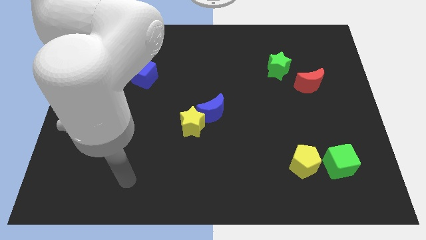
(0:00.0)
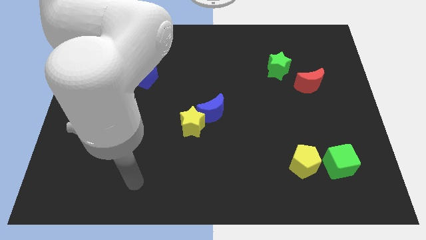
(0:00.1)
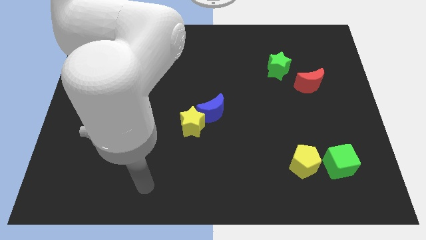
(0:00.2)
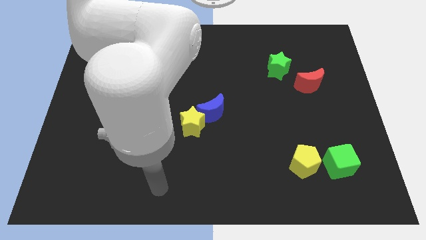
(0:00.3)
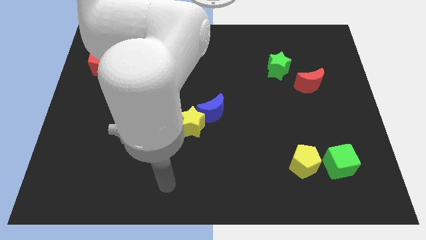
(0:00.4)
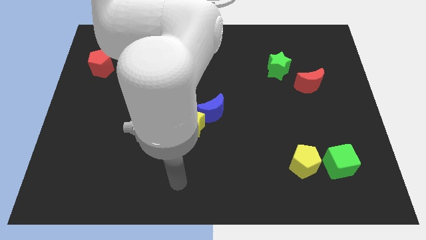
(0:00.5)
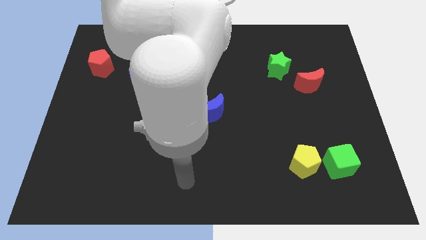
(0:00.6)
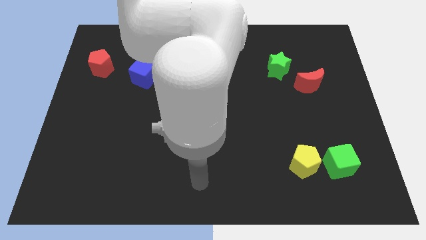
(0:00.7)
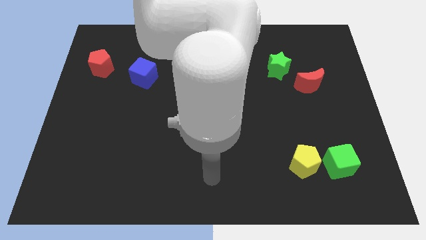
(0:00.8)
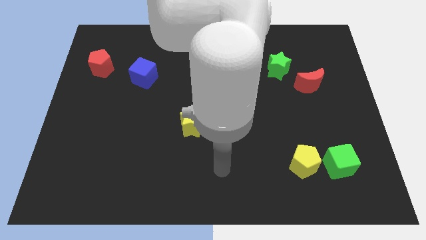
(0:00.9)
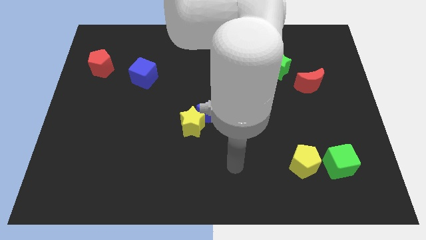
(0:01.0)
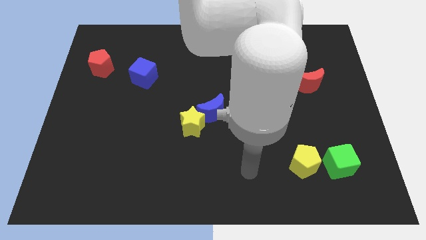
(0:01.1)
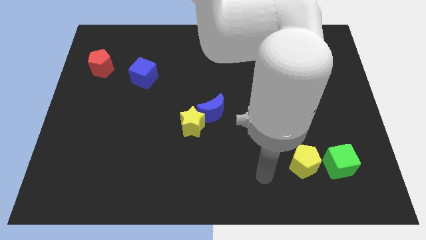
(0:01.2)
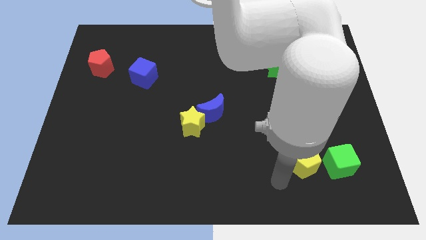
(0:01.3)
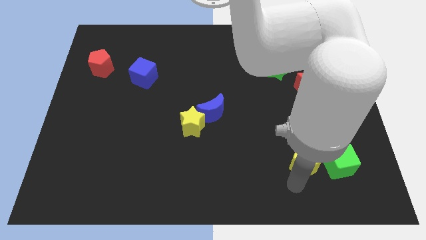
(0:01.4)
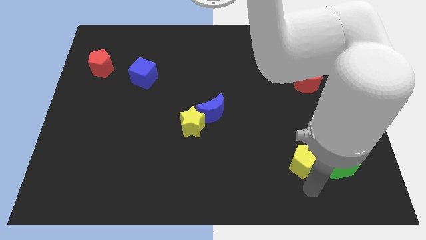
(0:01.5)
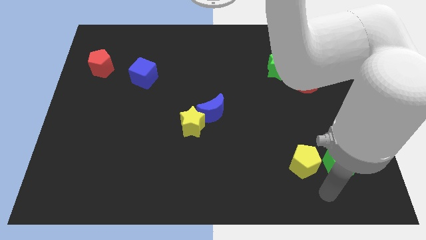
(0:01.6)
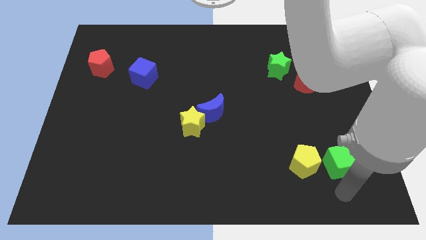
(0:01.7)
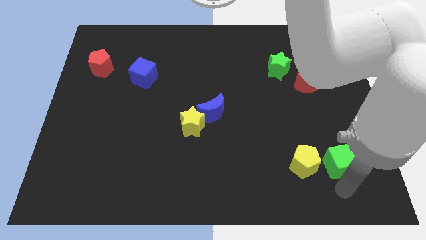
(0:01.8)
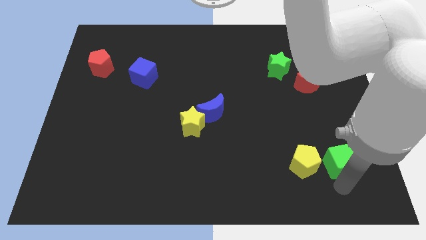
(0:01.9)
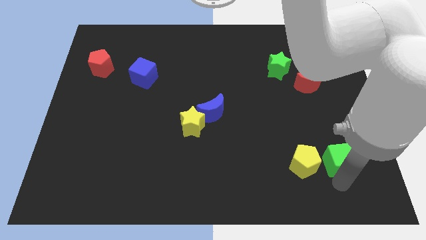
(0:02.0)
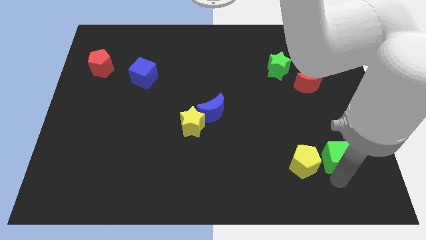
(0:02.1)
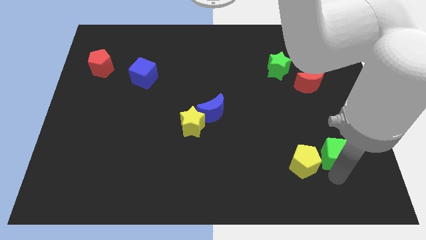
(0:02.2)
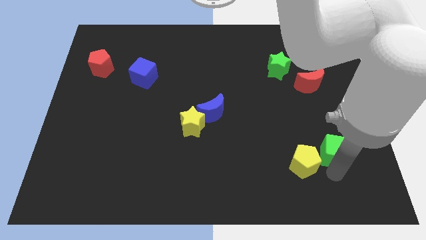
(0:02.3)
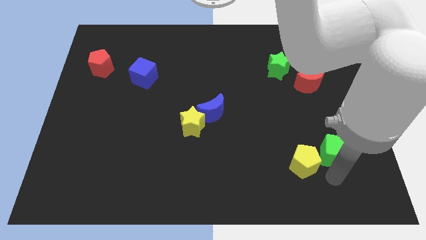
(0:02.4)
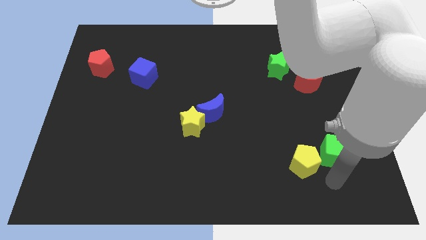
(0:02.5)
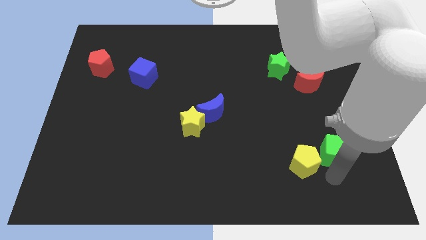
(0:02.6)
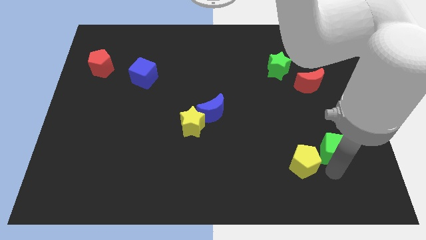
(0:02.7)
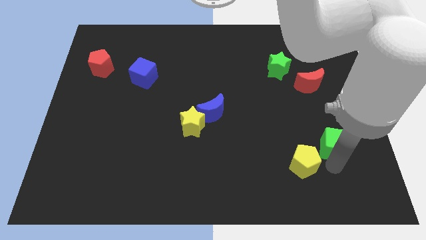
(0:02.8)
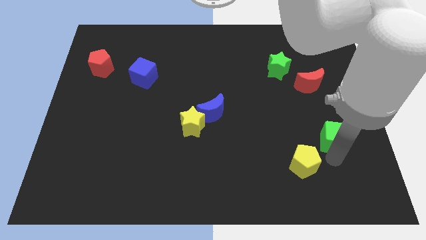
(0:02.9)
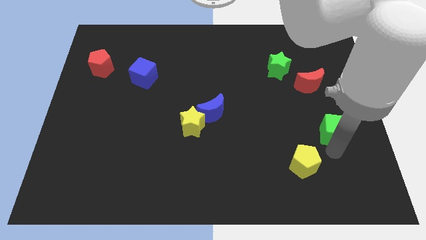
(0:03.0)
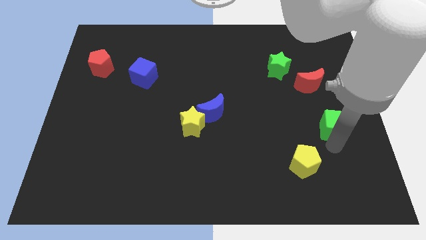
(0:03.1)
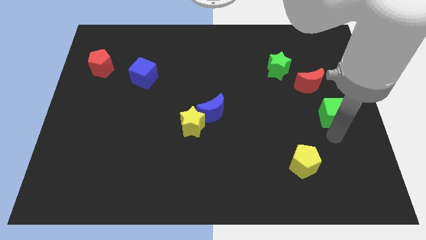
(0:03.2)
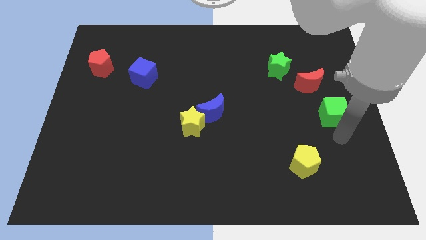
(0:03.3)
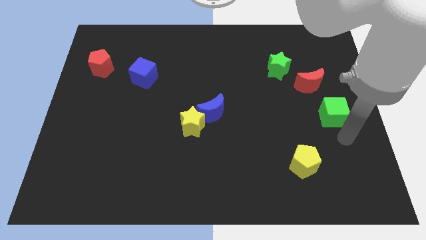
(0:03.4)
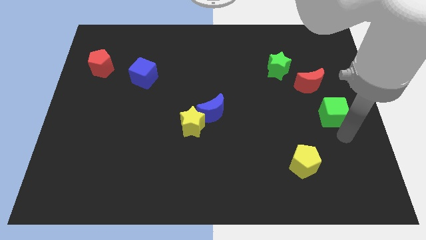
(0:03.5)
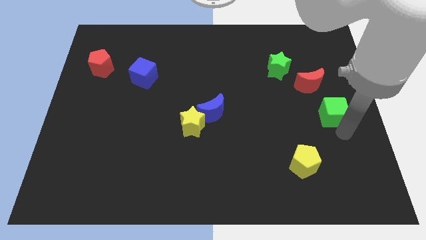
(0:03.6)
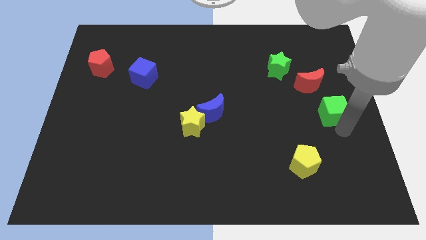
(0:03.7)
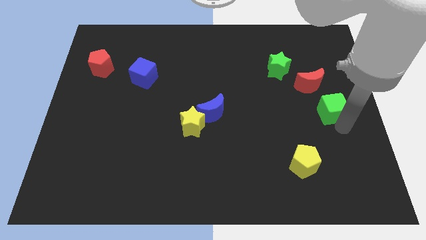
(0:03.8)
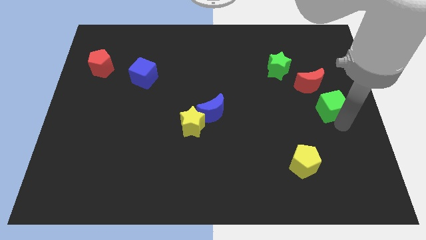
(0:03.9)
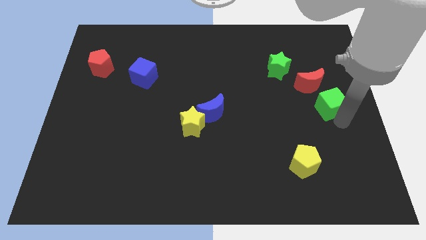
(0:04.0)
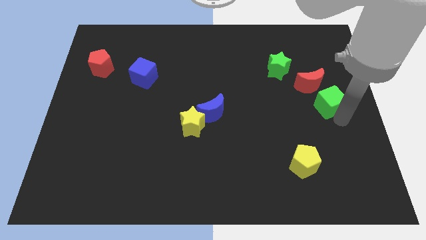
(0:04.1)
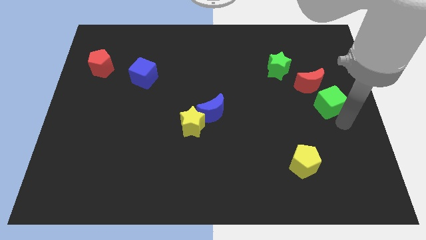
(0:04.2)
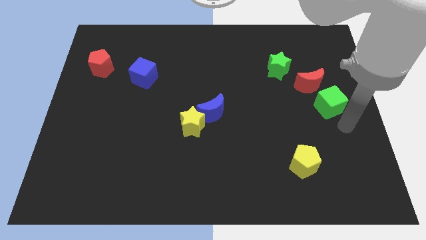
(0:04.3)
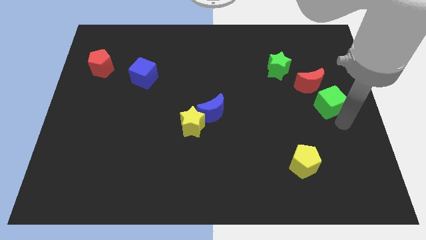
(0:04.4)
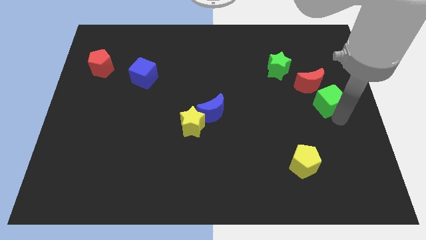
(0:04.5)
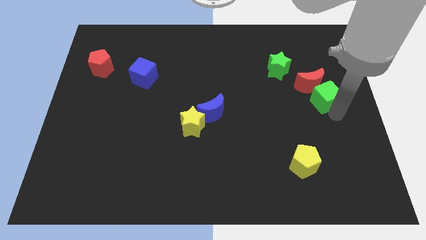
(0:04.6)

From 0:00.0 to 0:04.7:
move the green cube towards the red moon

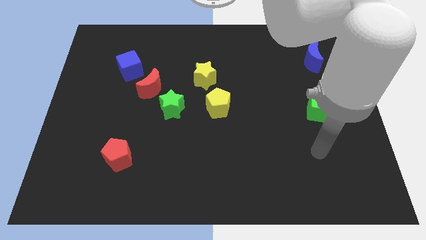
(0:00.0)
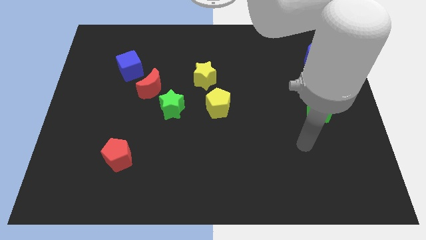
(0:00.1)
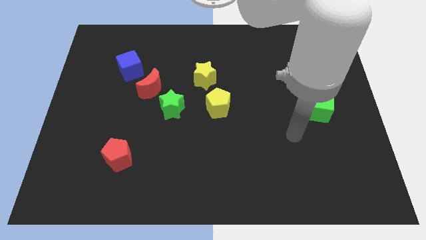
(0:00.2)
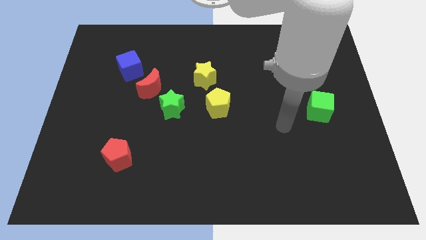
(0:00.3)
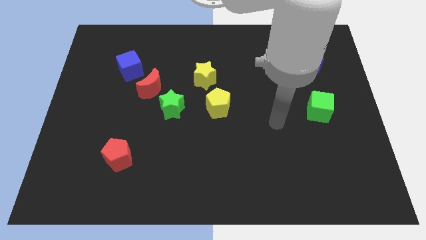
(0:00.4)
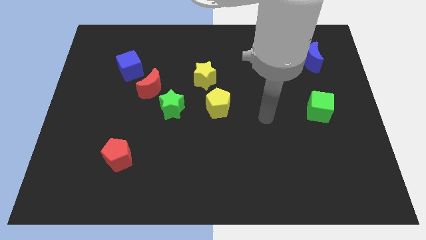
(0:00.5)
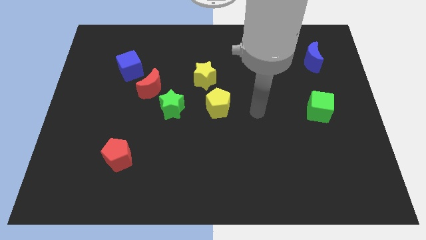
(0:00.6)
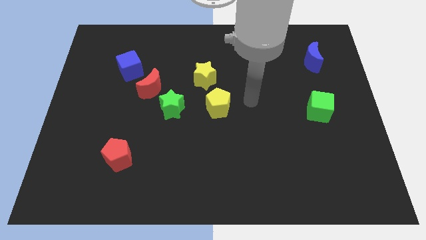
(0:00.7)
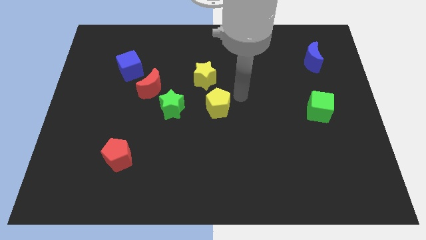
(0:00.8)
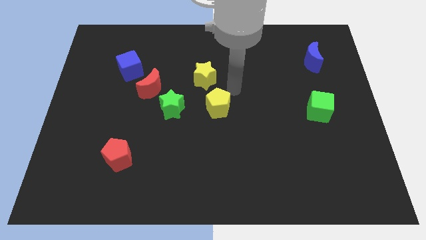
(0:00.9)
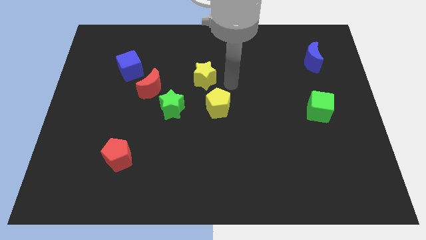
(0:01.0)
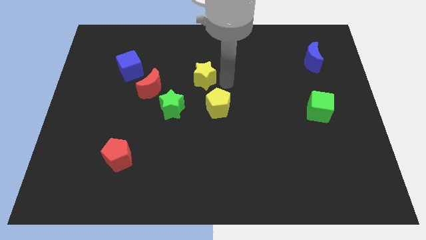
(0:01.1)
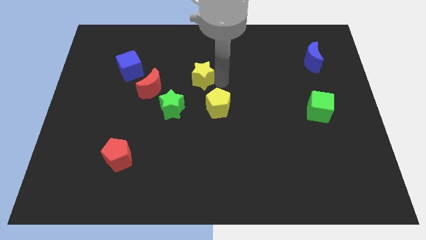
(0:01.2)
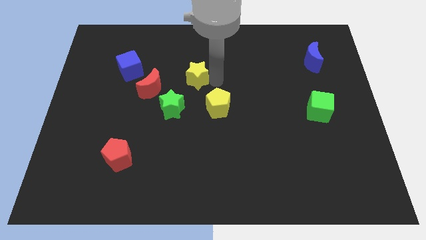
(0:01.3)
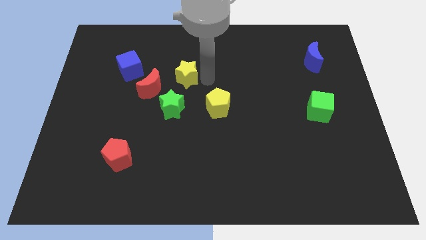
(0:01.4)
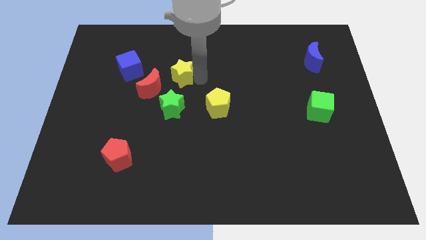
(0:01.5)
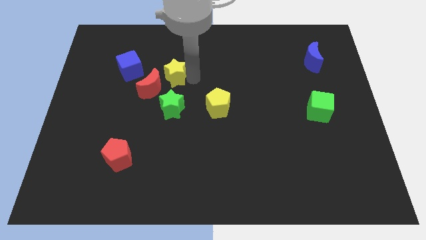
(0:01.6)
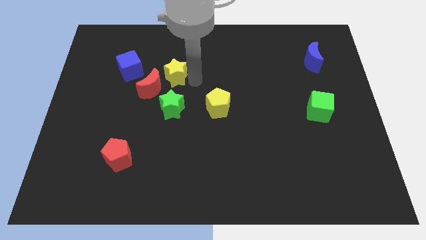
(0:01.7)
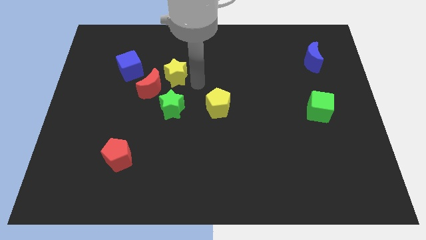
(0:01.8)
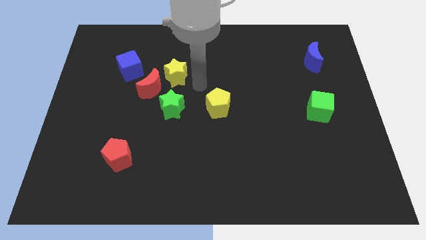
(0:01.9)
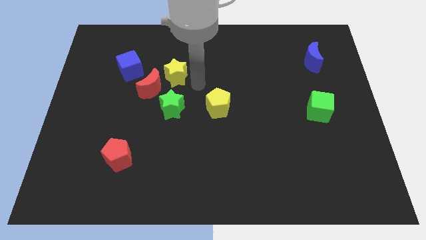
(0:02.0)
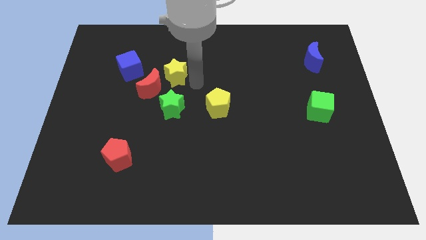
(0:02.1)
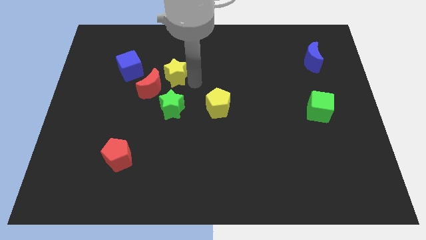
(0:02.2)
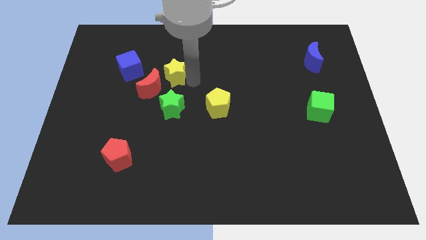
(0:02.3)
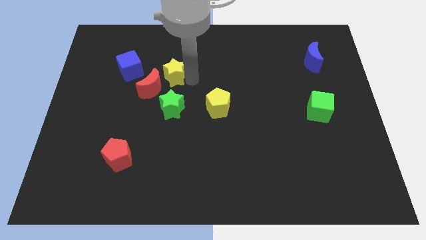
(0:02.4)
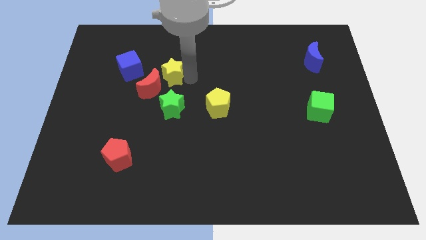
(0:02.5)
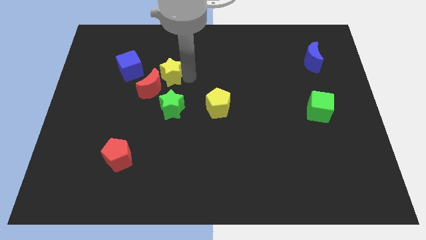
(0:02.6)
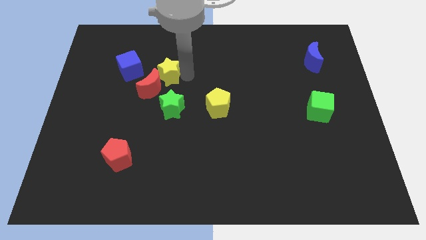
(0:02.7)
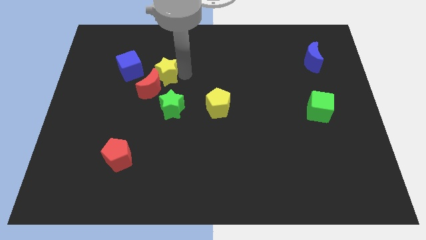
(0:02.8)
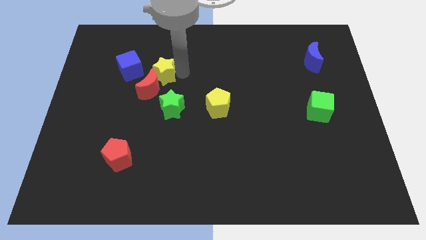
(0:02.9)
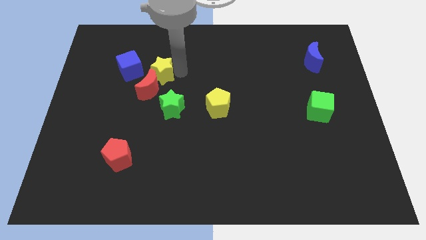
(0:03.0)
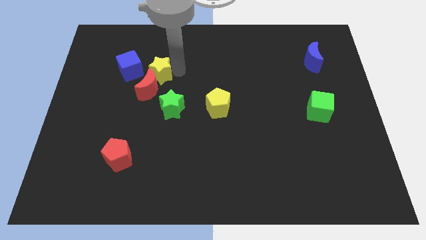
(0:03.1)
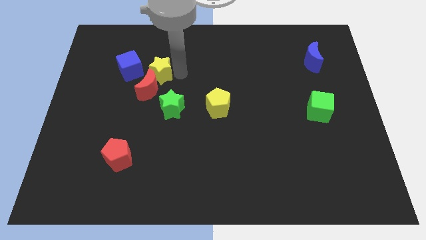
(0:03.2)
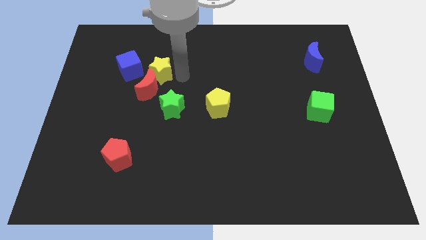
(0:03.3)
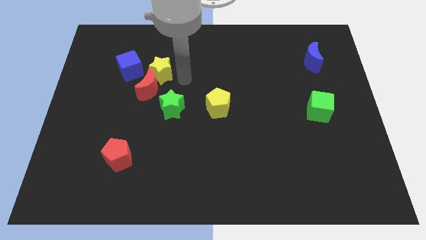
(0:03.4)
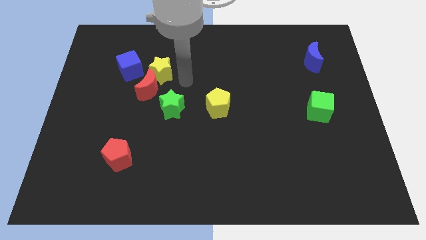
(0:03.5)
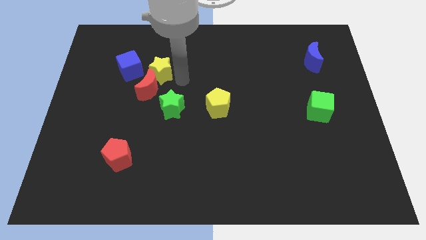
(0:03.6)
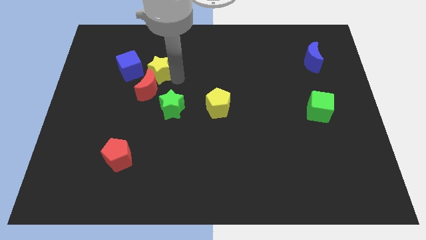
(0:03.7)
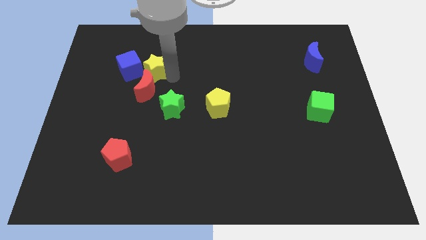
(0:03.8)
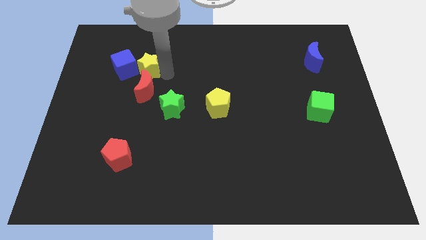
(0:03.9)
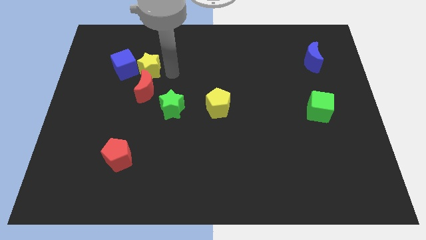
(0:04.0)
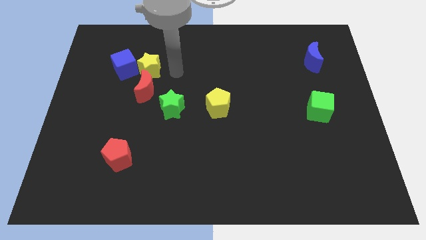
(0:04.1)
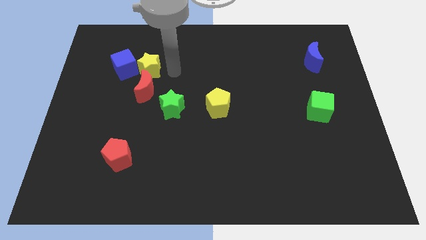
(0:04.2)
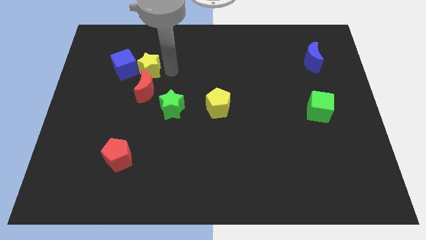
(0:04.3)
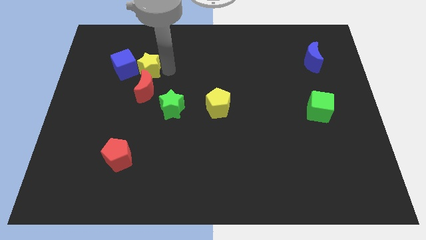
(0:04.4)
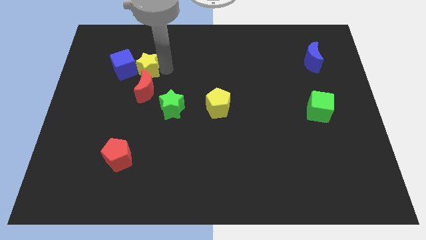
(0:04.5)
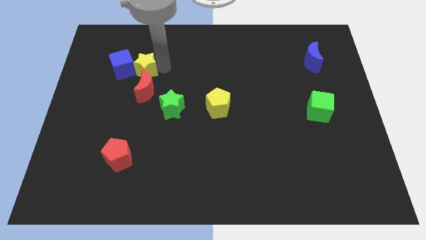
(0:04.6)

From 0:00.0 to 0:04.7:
slide the yellow star towards the blue cube
